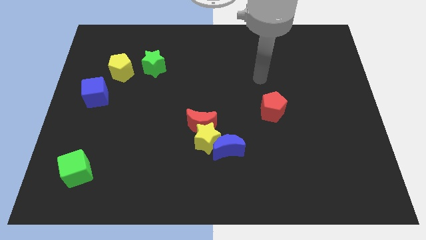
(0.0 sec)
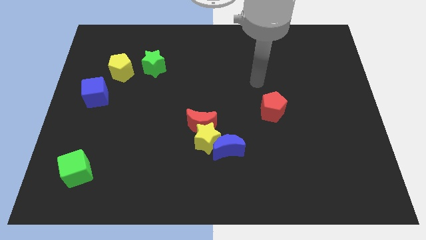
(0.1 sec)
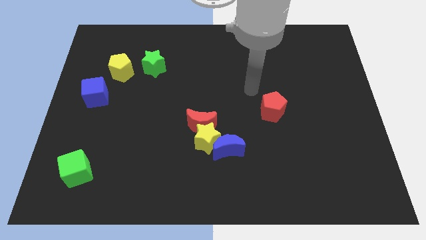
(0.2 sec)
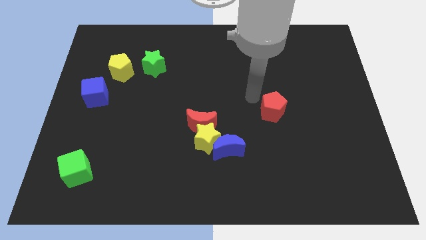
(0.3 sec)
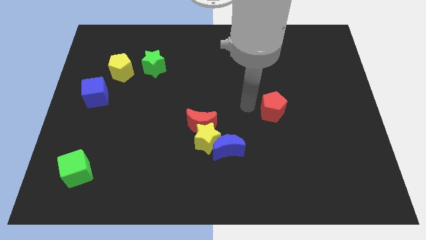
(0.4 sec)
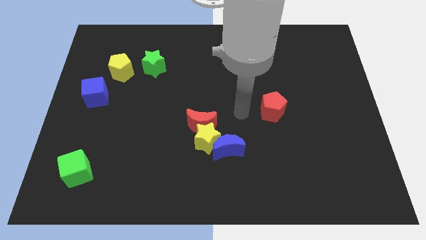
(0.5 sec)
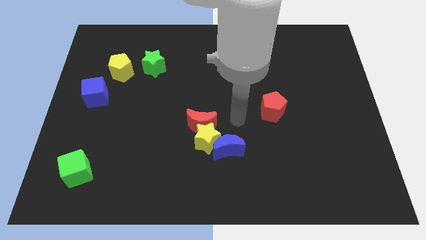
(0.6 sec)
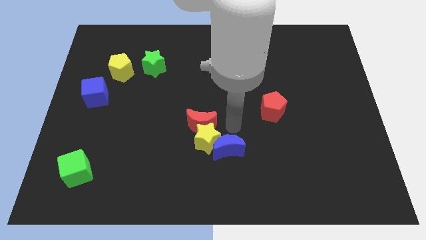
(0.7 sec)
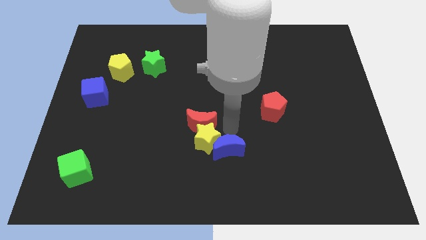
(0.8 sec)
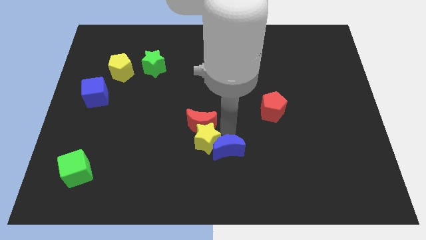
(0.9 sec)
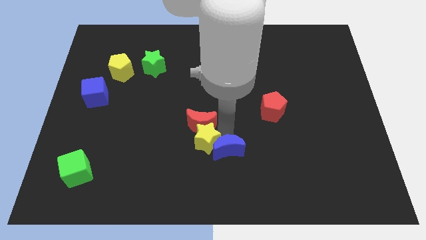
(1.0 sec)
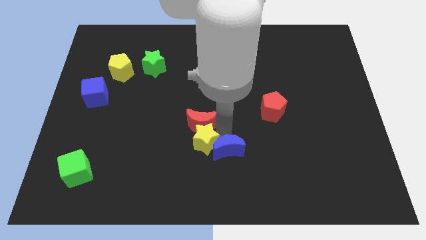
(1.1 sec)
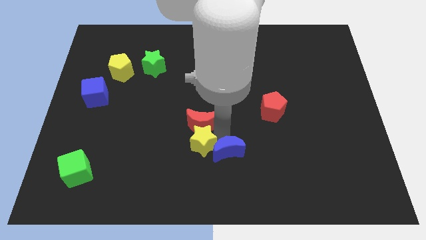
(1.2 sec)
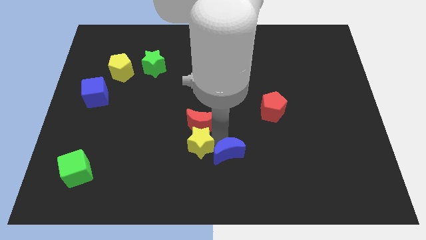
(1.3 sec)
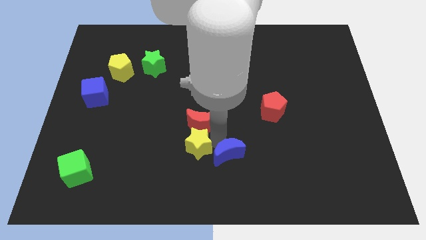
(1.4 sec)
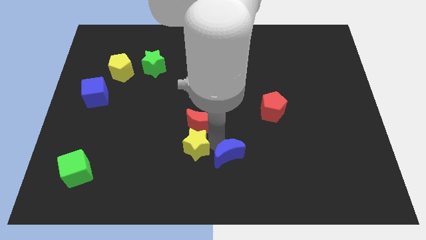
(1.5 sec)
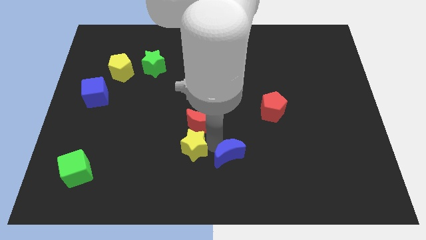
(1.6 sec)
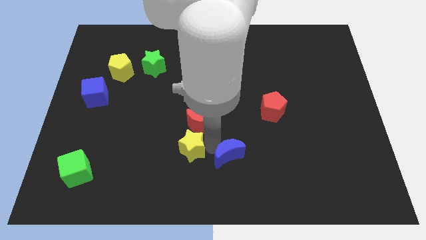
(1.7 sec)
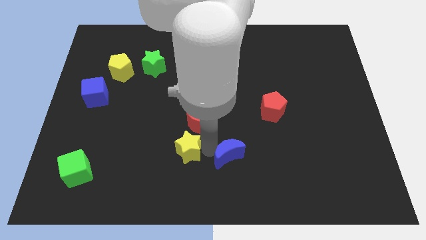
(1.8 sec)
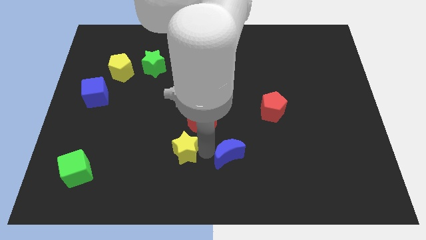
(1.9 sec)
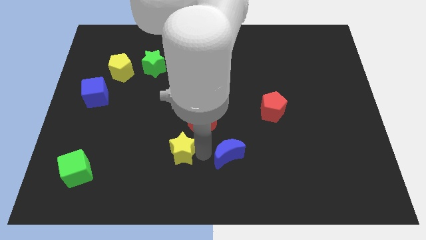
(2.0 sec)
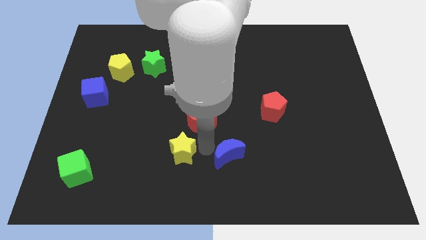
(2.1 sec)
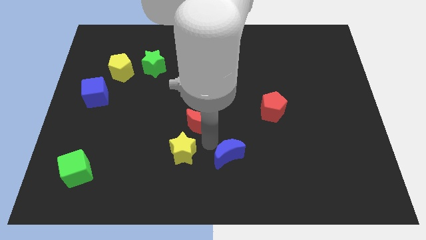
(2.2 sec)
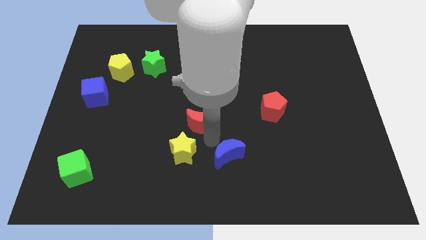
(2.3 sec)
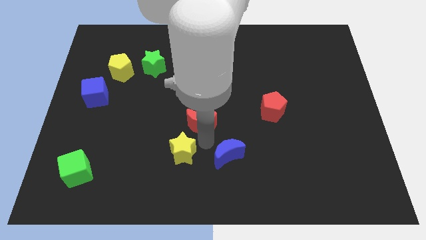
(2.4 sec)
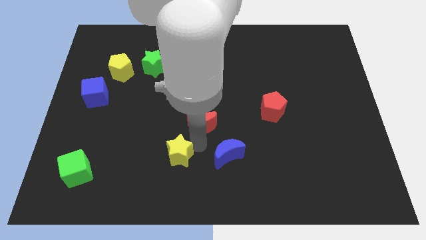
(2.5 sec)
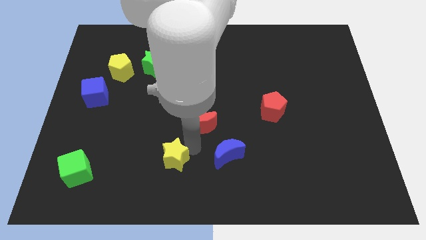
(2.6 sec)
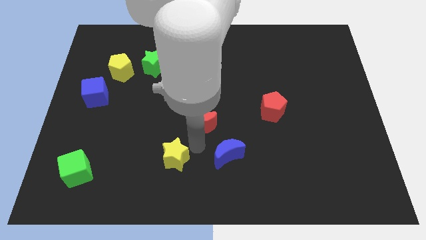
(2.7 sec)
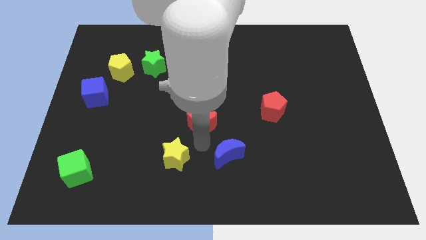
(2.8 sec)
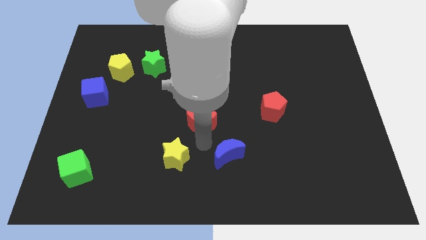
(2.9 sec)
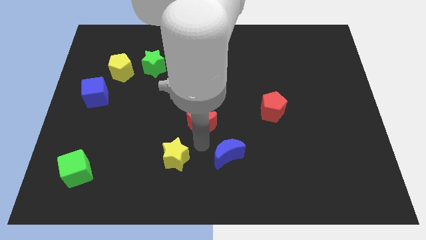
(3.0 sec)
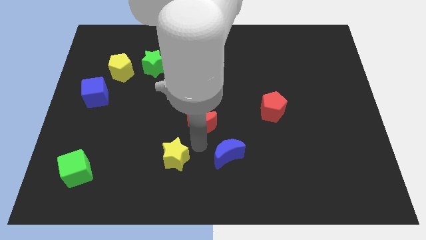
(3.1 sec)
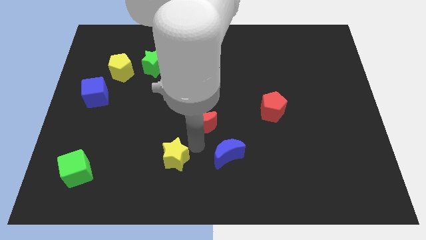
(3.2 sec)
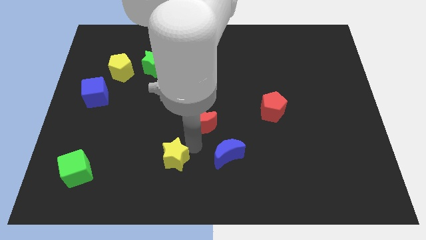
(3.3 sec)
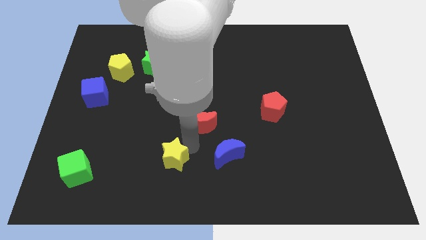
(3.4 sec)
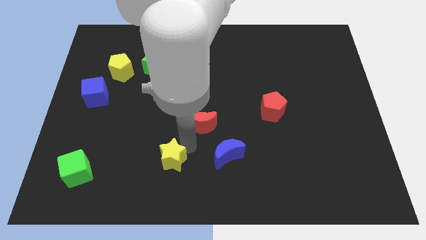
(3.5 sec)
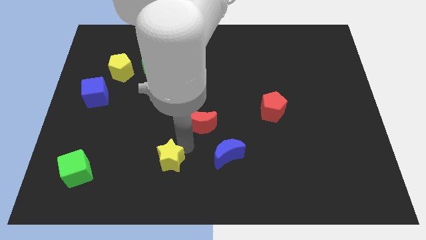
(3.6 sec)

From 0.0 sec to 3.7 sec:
pull the yellow star apart from the red moon and blue moon

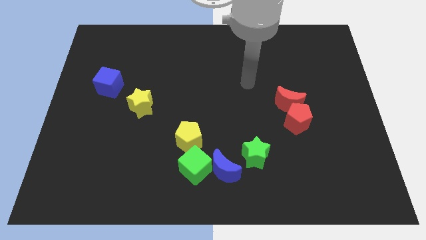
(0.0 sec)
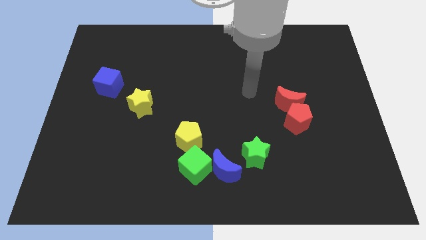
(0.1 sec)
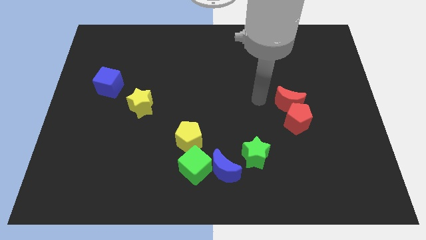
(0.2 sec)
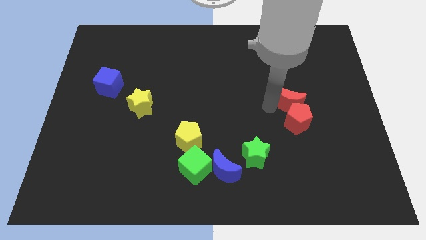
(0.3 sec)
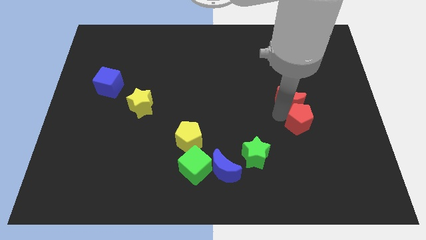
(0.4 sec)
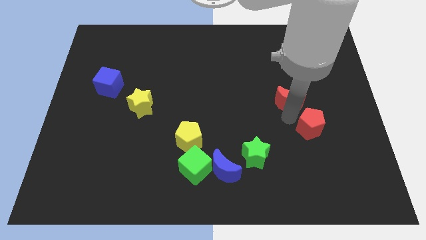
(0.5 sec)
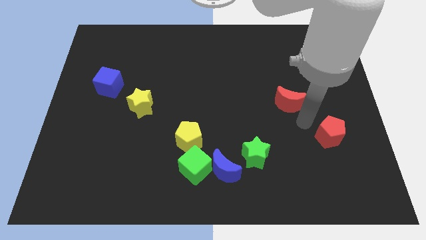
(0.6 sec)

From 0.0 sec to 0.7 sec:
pull the red moon apart from the red pentagon

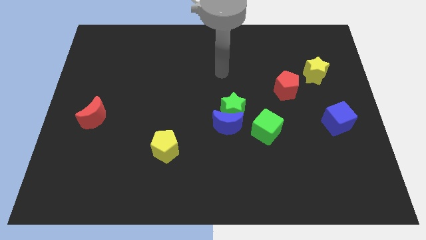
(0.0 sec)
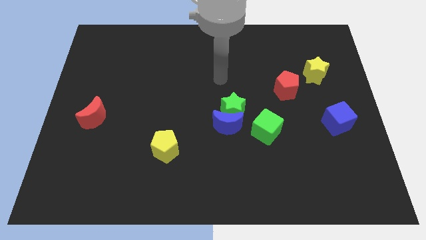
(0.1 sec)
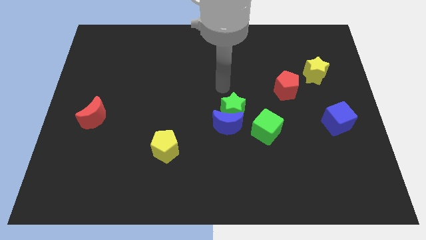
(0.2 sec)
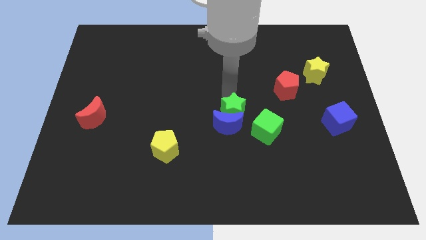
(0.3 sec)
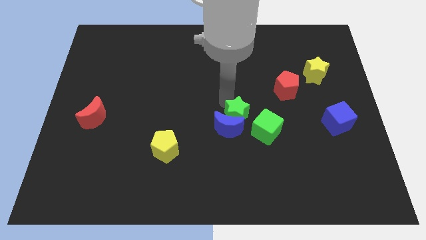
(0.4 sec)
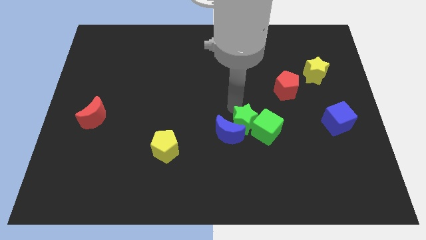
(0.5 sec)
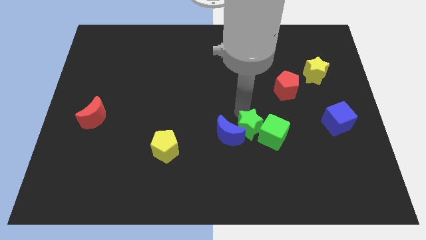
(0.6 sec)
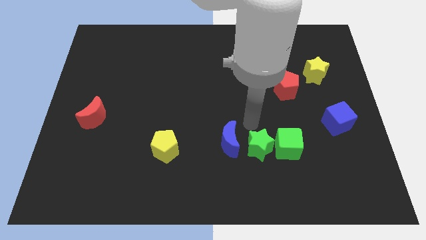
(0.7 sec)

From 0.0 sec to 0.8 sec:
pull the blue moon apart from the green star and green cube

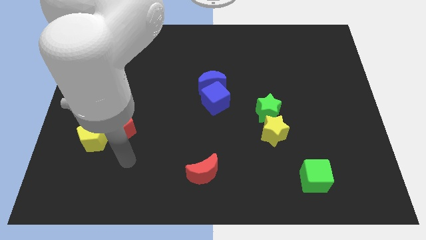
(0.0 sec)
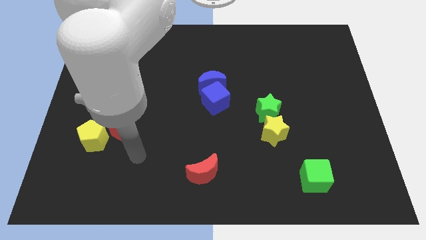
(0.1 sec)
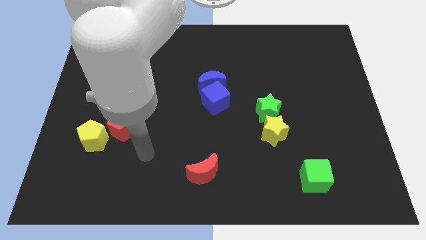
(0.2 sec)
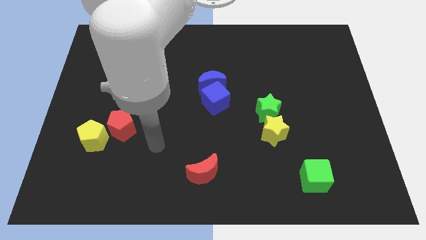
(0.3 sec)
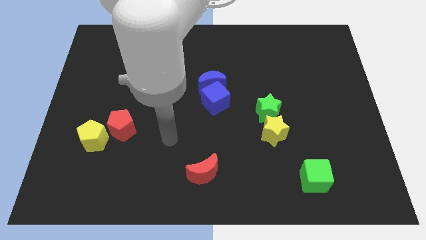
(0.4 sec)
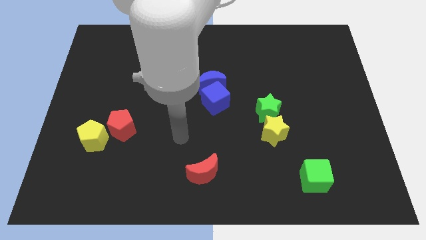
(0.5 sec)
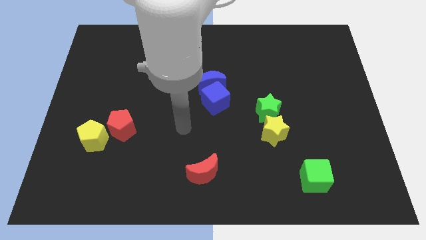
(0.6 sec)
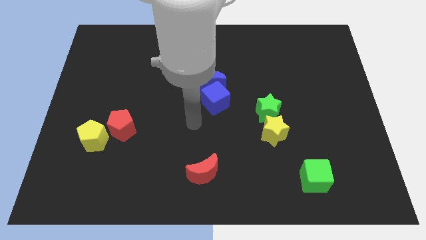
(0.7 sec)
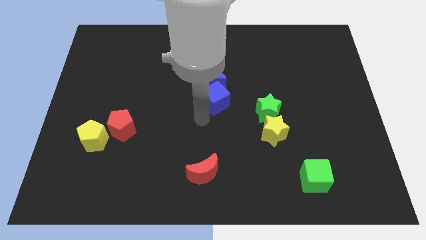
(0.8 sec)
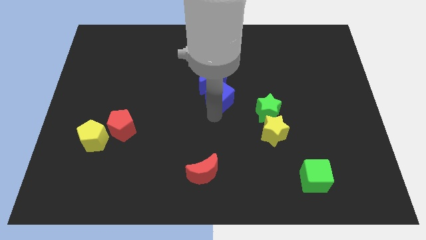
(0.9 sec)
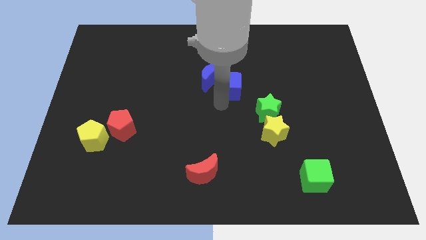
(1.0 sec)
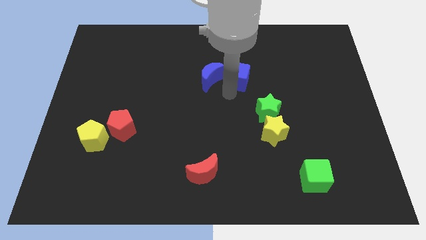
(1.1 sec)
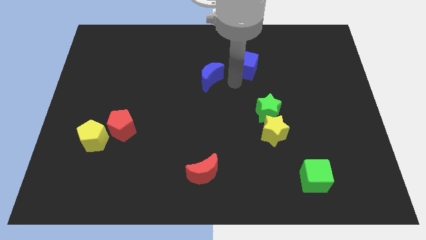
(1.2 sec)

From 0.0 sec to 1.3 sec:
move the blue moon away from the blue cube

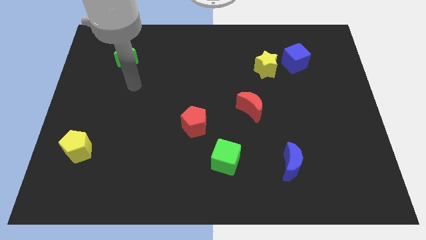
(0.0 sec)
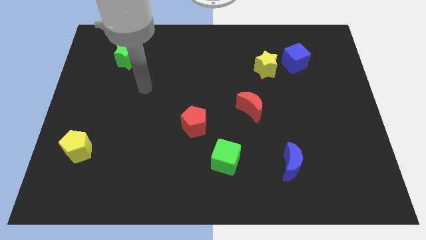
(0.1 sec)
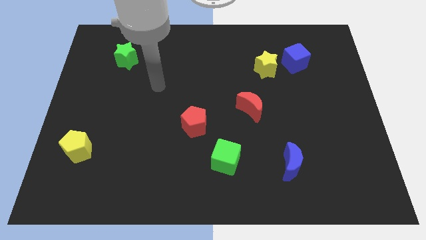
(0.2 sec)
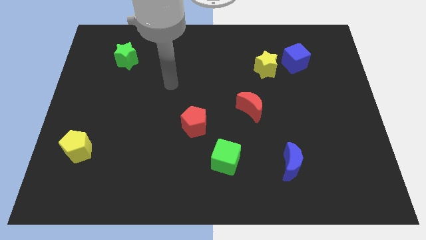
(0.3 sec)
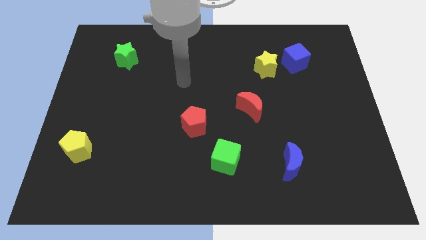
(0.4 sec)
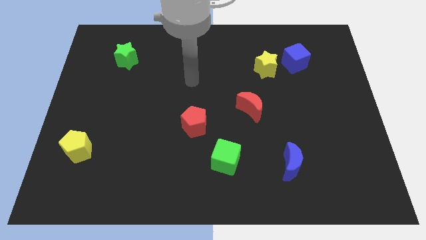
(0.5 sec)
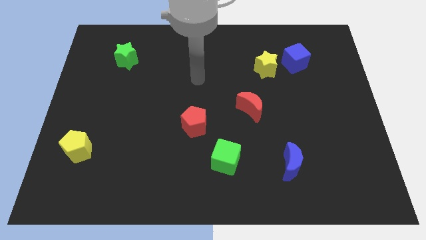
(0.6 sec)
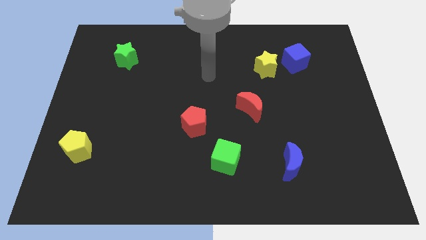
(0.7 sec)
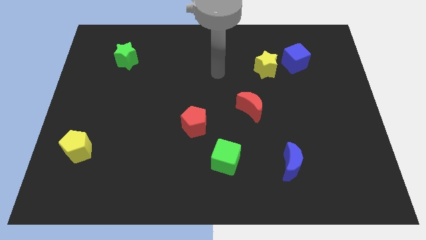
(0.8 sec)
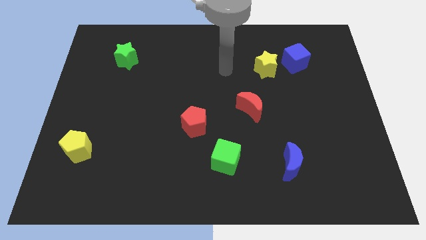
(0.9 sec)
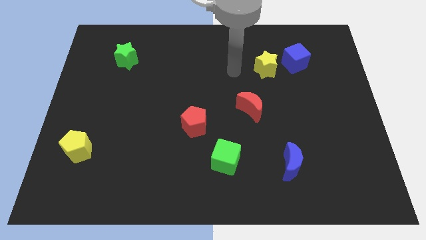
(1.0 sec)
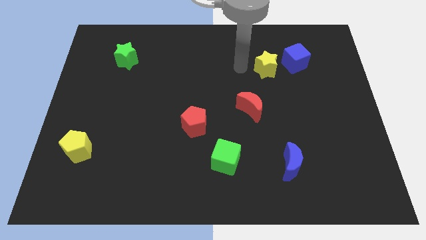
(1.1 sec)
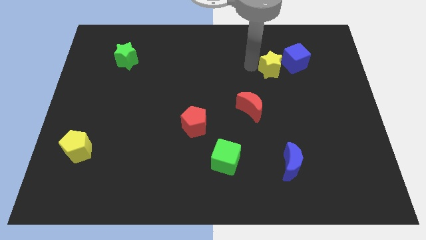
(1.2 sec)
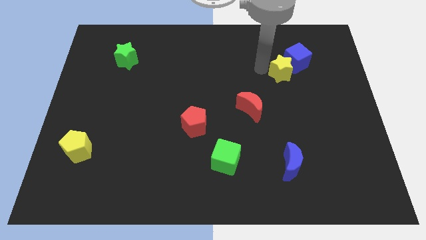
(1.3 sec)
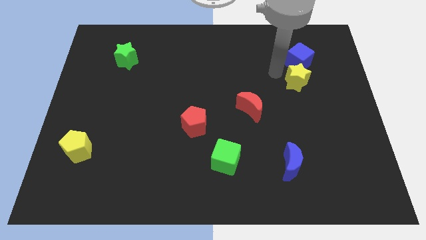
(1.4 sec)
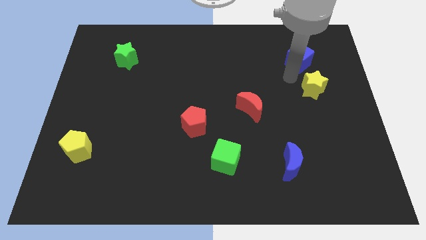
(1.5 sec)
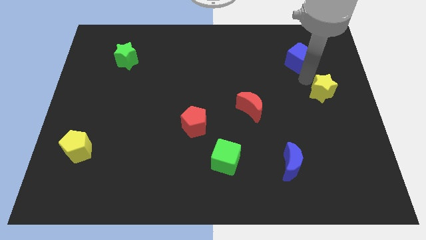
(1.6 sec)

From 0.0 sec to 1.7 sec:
pull the blue cube apart from the yellow star

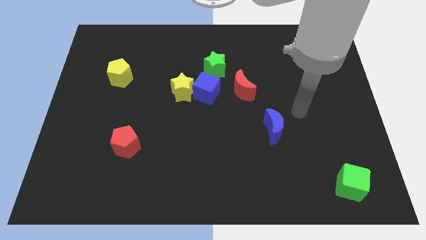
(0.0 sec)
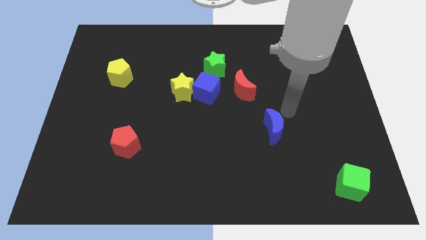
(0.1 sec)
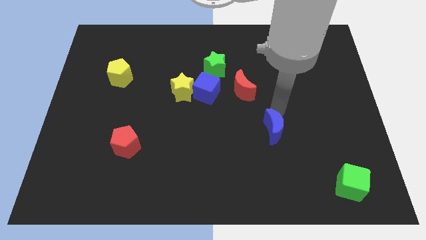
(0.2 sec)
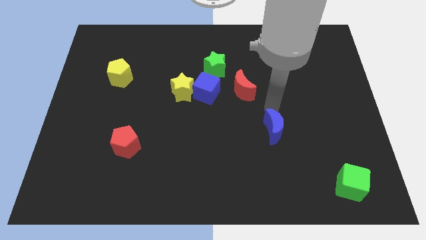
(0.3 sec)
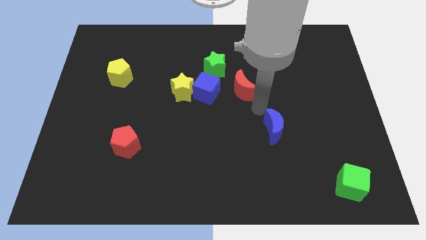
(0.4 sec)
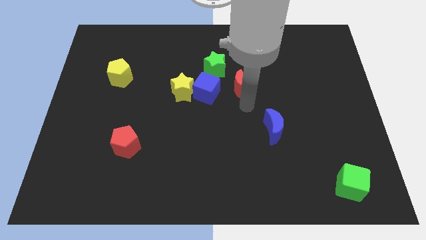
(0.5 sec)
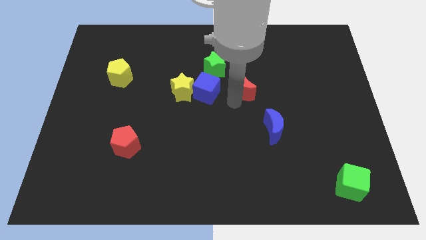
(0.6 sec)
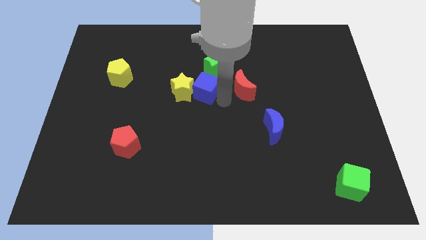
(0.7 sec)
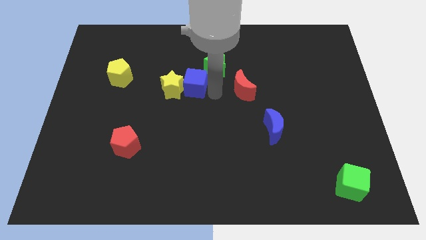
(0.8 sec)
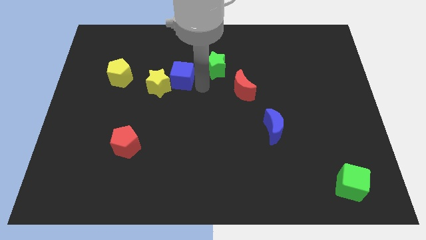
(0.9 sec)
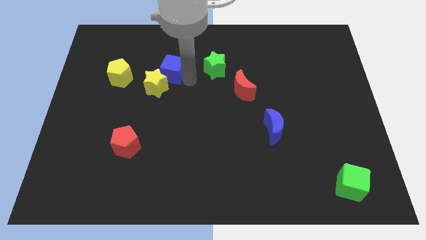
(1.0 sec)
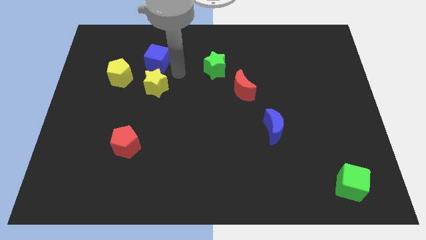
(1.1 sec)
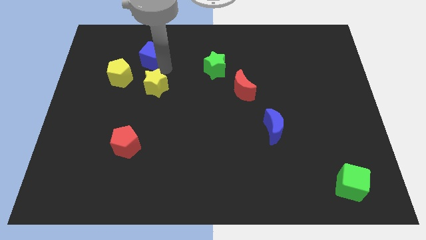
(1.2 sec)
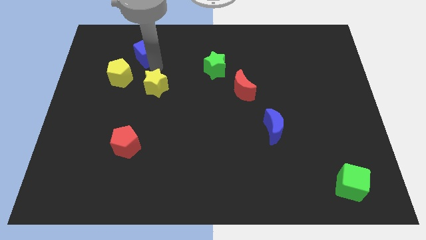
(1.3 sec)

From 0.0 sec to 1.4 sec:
pull the yellow star apart from the blue cube
